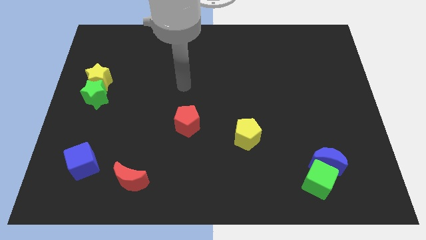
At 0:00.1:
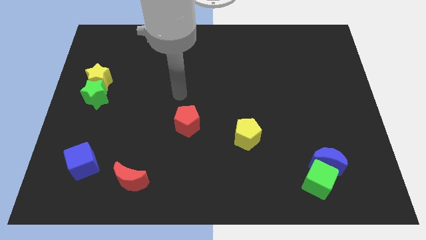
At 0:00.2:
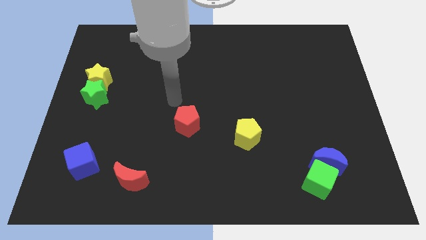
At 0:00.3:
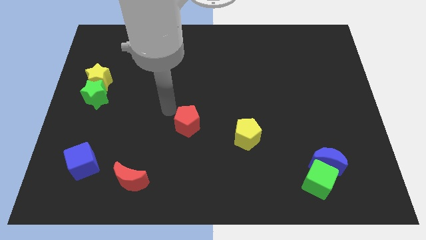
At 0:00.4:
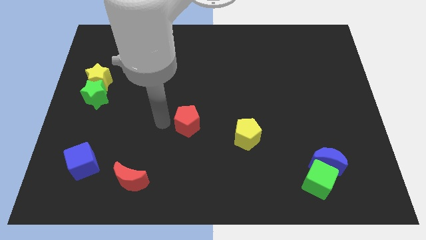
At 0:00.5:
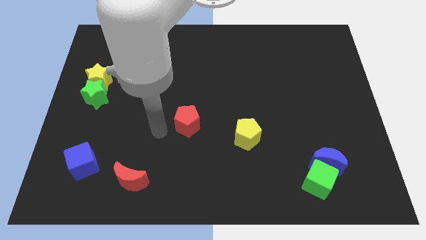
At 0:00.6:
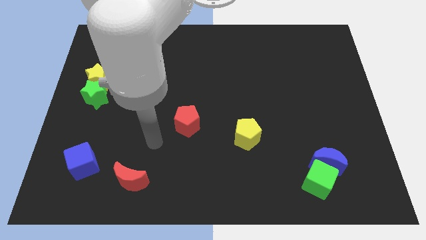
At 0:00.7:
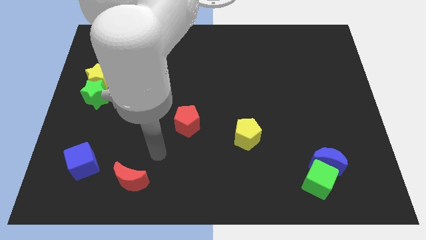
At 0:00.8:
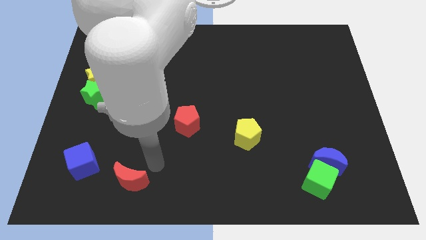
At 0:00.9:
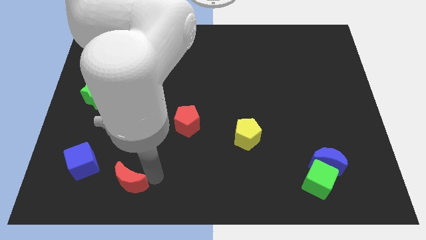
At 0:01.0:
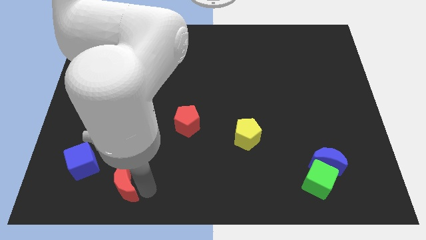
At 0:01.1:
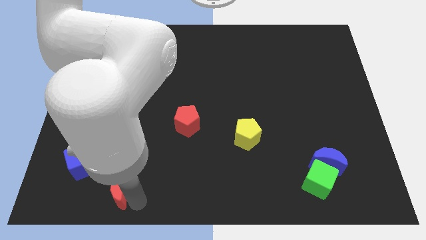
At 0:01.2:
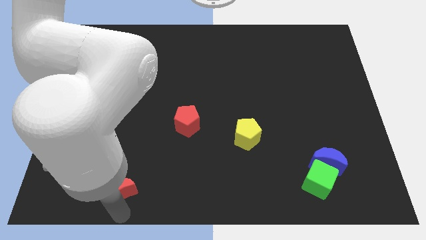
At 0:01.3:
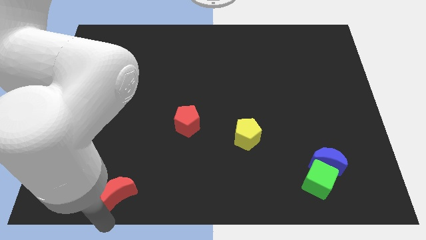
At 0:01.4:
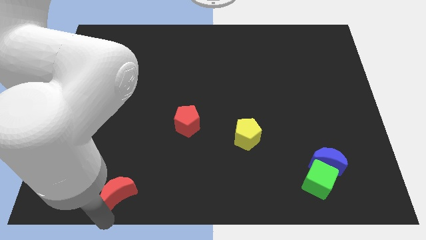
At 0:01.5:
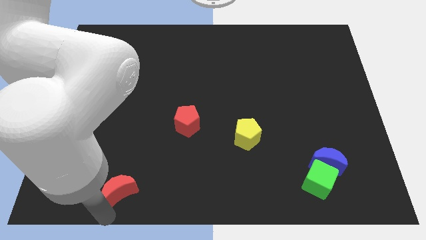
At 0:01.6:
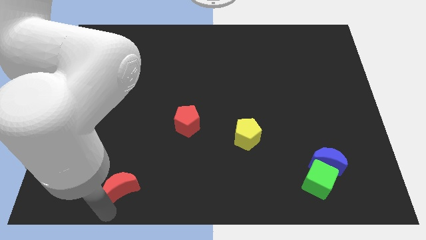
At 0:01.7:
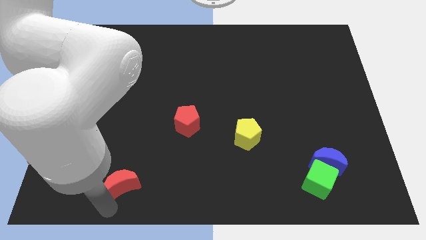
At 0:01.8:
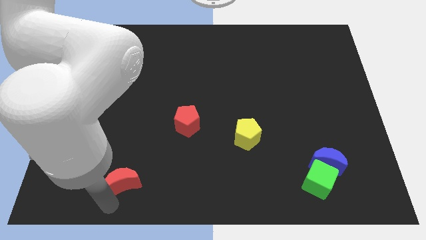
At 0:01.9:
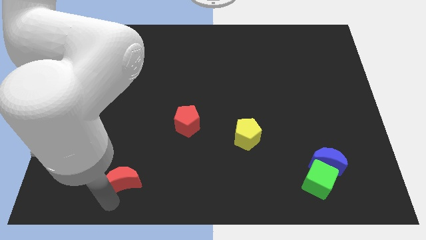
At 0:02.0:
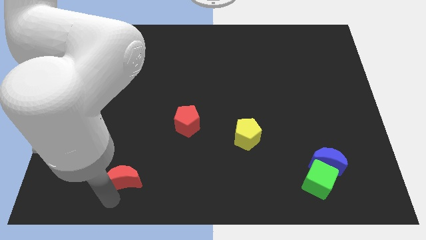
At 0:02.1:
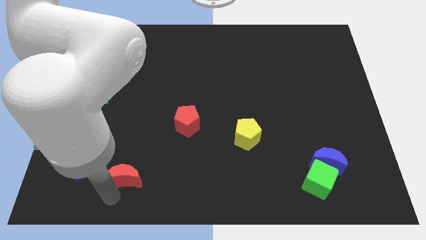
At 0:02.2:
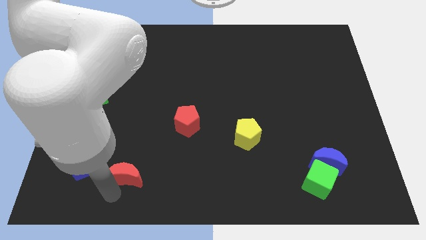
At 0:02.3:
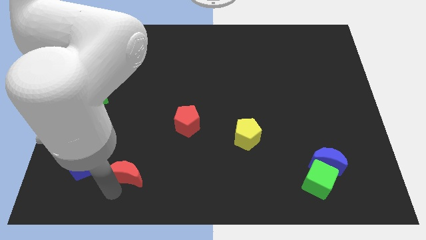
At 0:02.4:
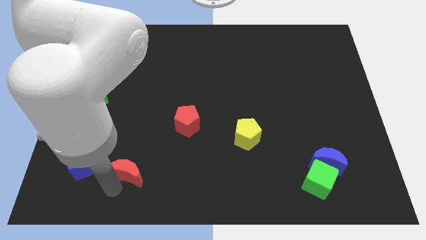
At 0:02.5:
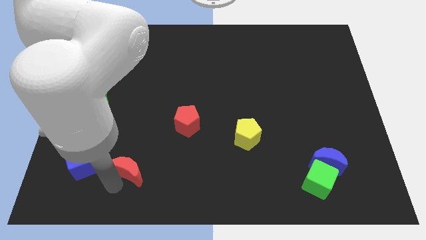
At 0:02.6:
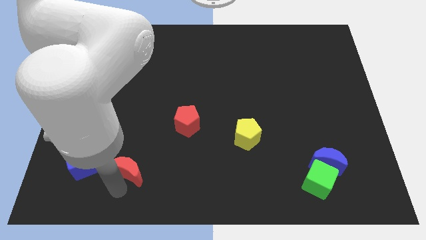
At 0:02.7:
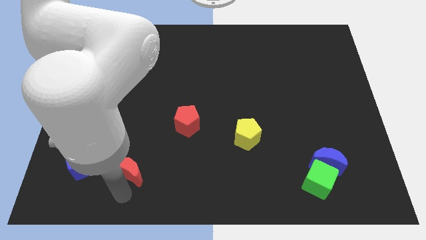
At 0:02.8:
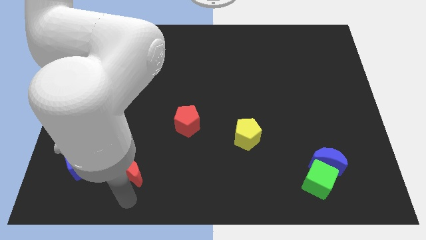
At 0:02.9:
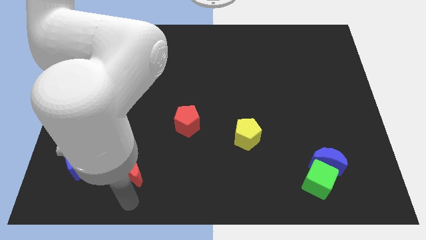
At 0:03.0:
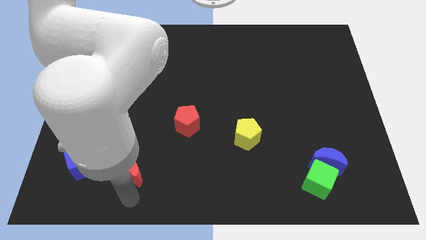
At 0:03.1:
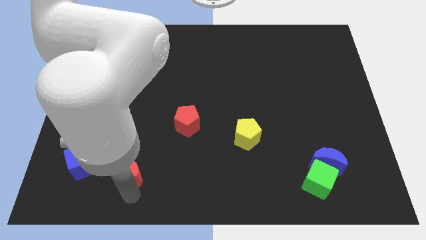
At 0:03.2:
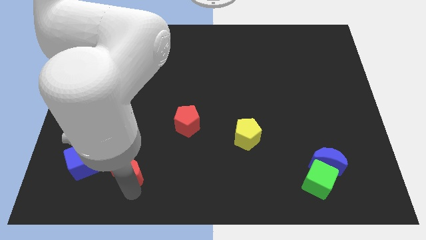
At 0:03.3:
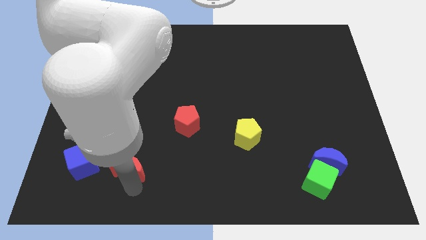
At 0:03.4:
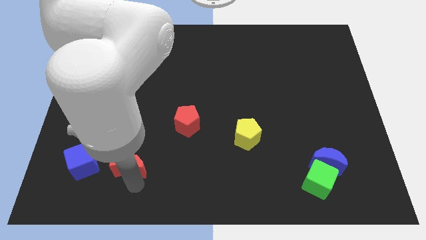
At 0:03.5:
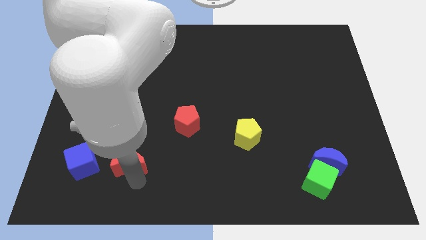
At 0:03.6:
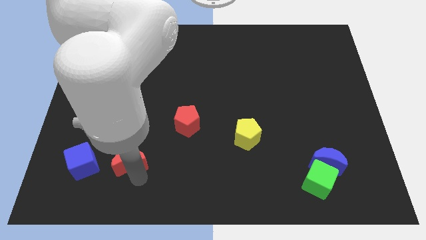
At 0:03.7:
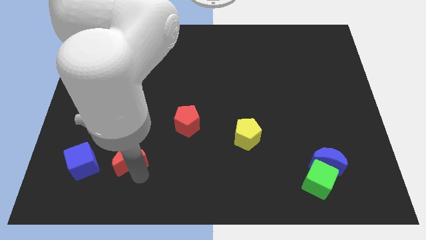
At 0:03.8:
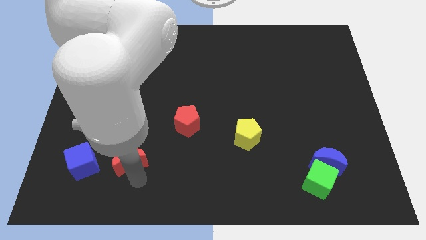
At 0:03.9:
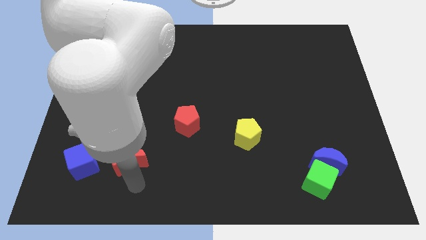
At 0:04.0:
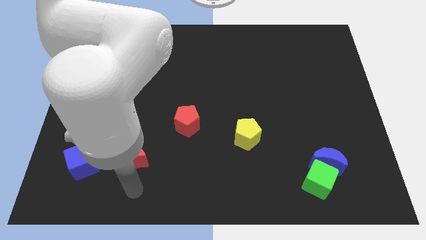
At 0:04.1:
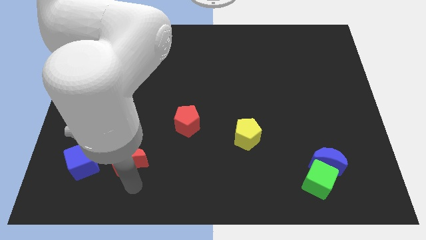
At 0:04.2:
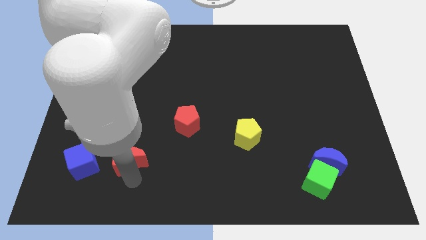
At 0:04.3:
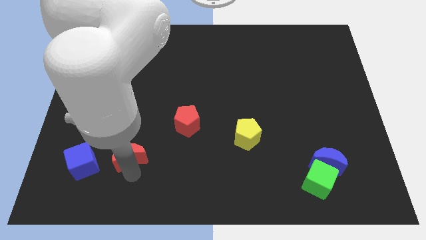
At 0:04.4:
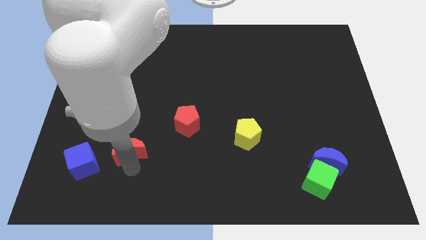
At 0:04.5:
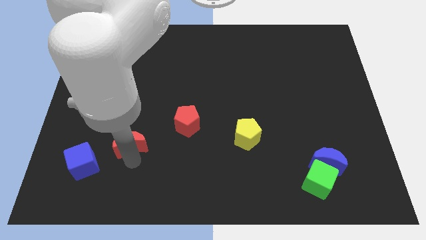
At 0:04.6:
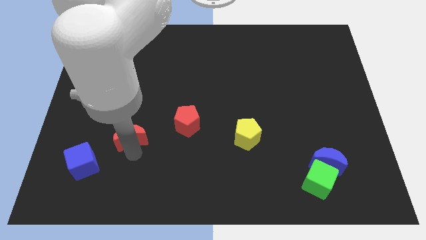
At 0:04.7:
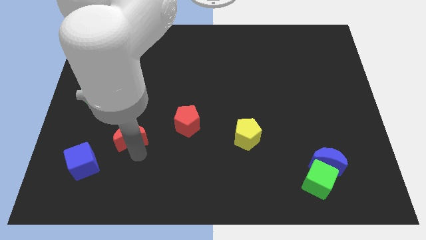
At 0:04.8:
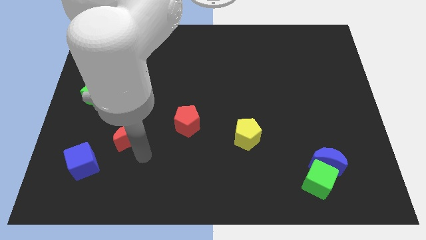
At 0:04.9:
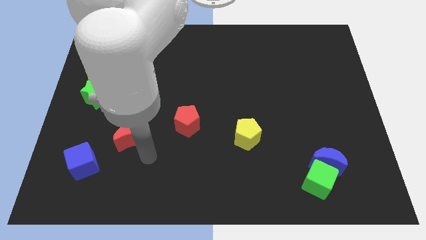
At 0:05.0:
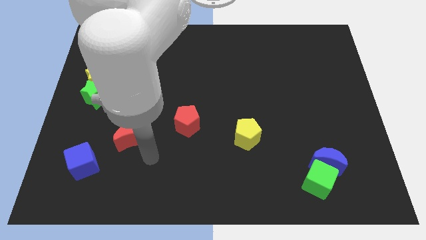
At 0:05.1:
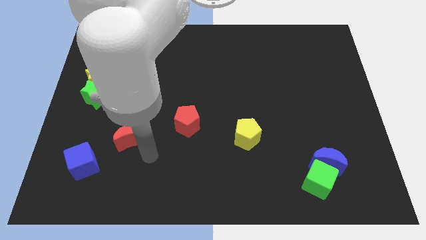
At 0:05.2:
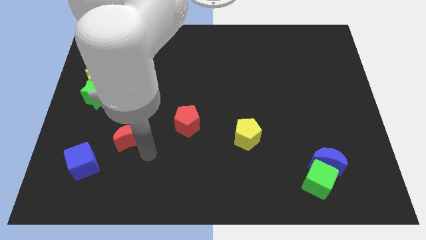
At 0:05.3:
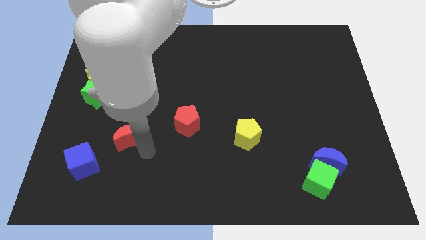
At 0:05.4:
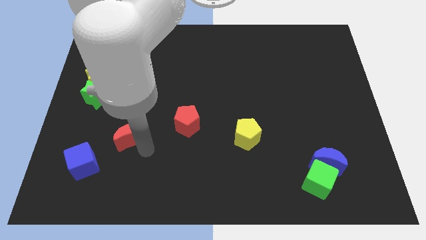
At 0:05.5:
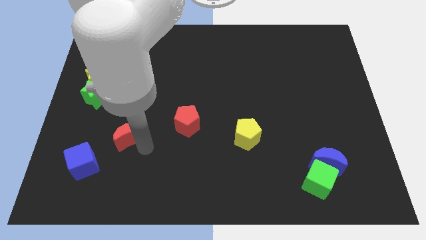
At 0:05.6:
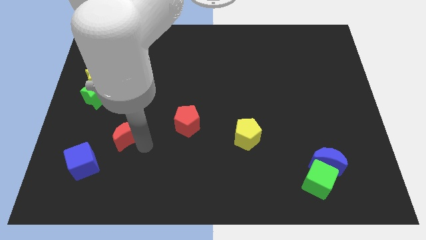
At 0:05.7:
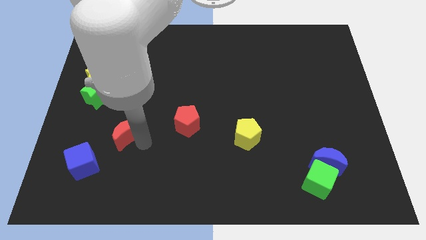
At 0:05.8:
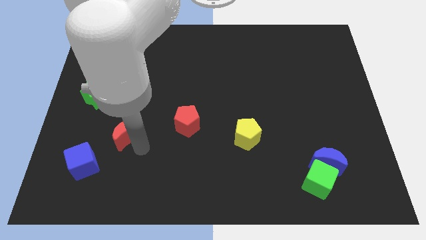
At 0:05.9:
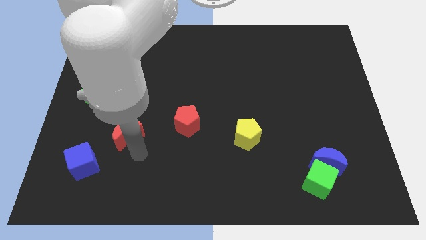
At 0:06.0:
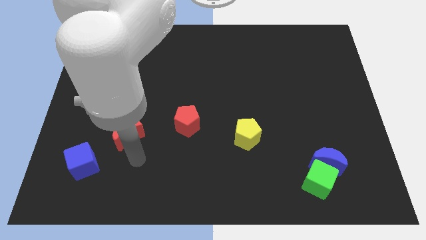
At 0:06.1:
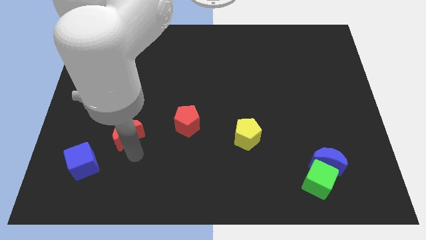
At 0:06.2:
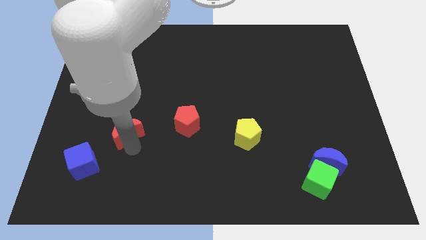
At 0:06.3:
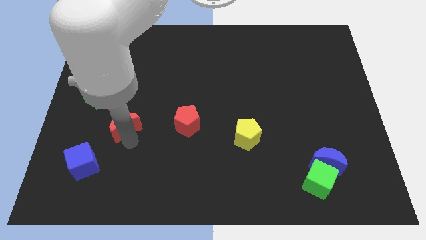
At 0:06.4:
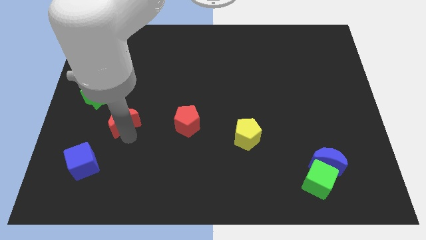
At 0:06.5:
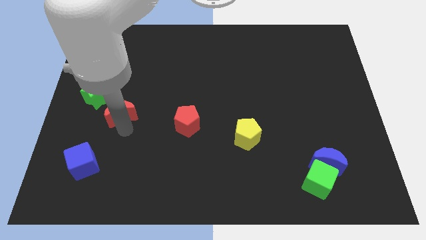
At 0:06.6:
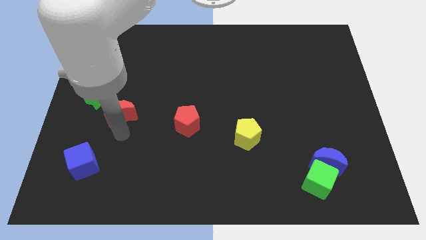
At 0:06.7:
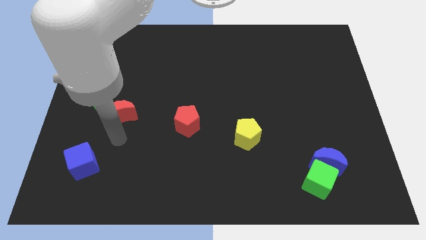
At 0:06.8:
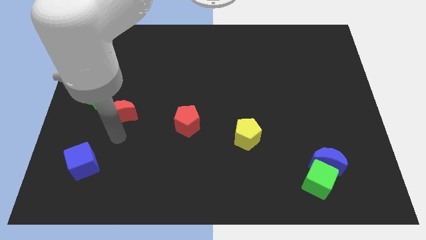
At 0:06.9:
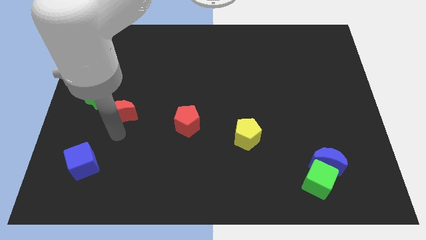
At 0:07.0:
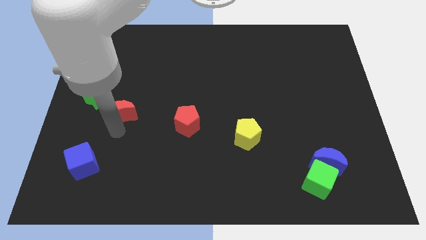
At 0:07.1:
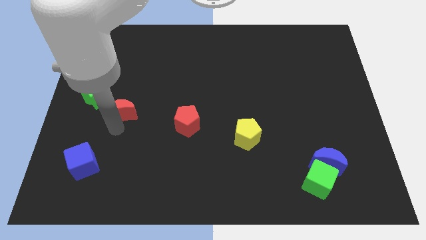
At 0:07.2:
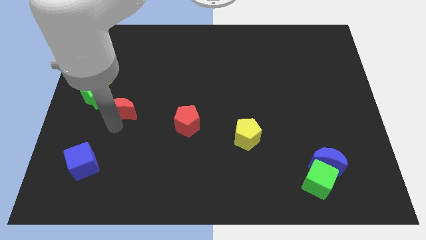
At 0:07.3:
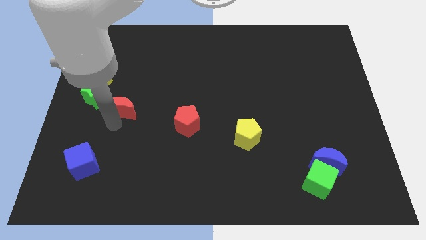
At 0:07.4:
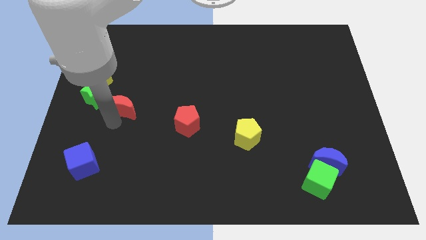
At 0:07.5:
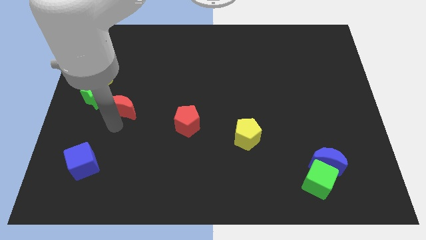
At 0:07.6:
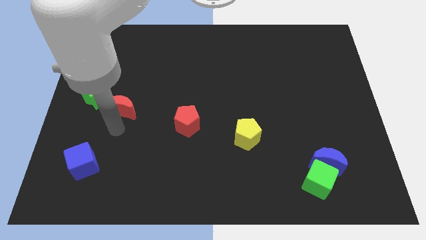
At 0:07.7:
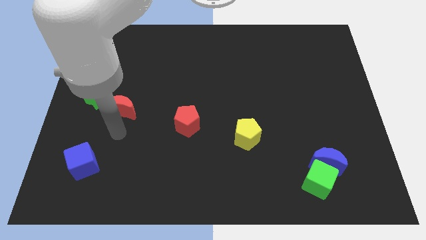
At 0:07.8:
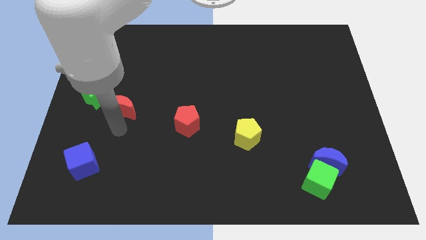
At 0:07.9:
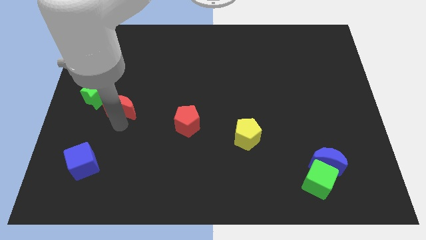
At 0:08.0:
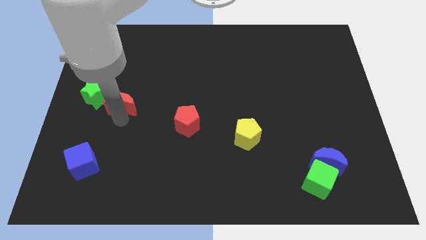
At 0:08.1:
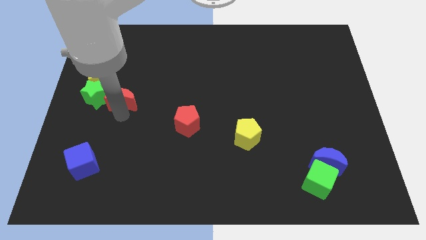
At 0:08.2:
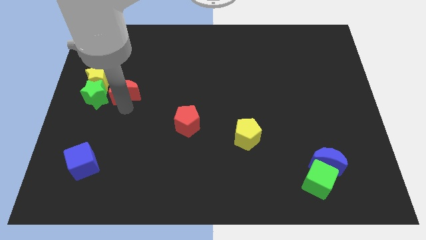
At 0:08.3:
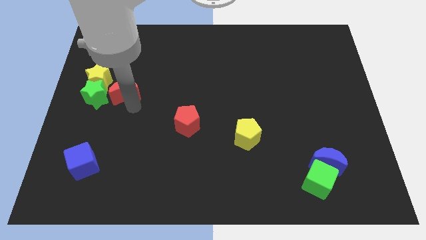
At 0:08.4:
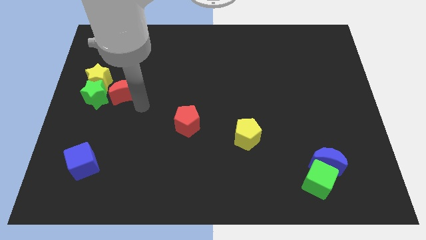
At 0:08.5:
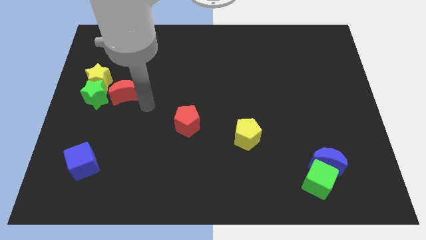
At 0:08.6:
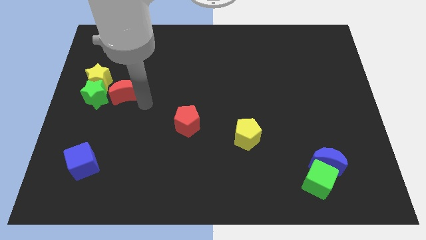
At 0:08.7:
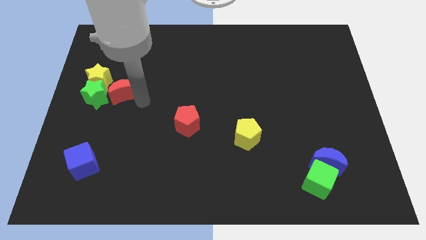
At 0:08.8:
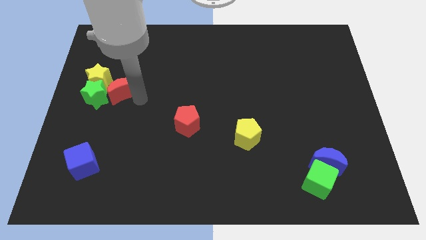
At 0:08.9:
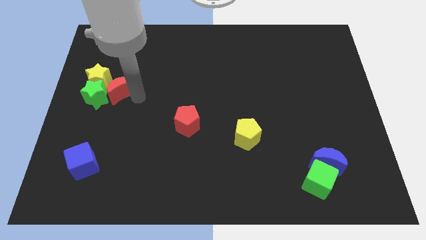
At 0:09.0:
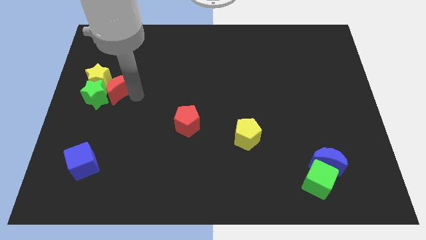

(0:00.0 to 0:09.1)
push the red moon close to the yellow star
